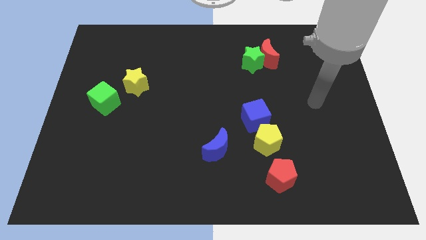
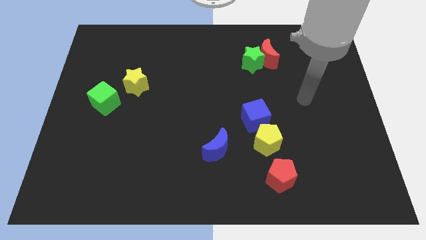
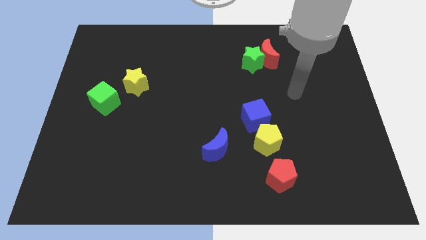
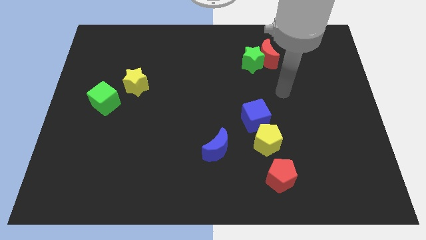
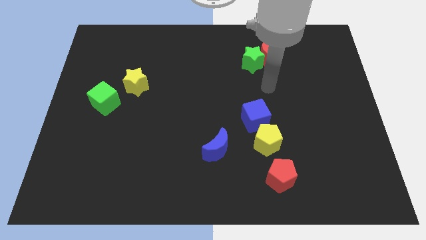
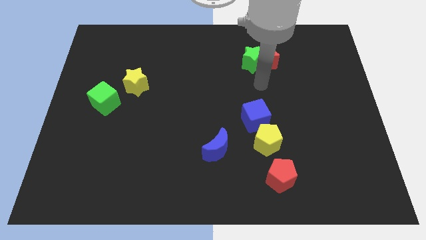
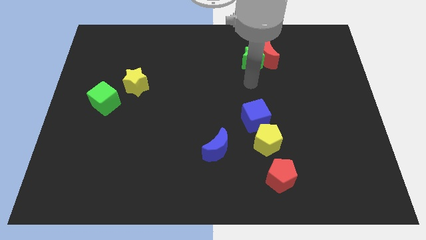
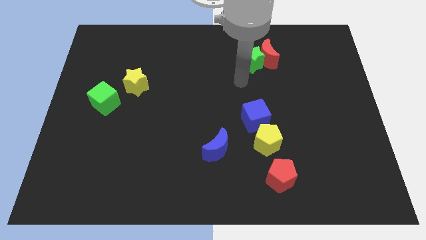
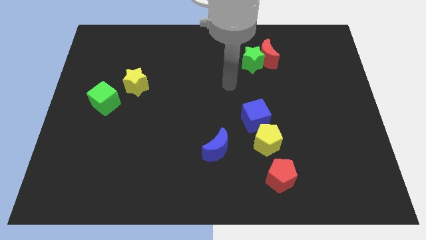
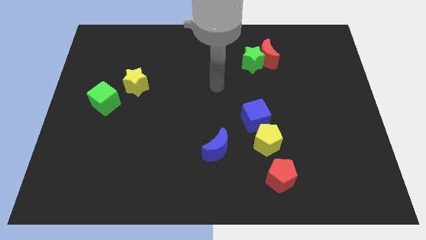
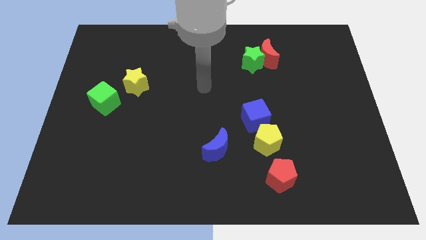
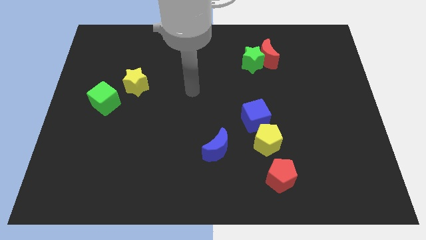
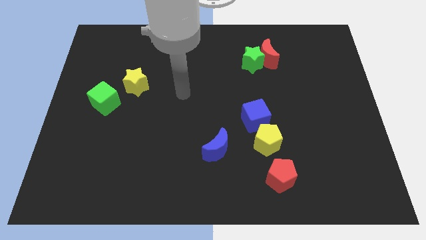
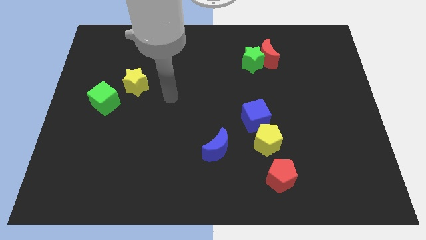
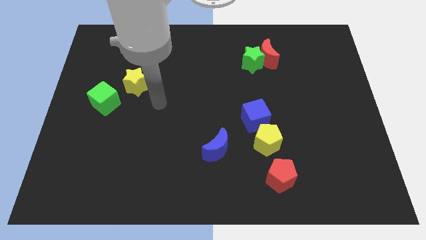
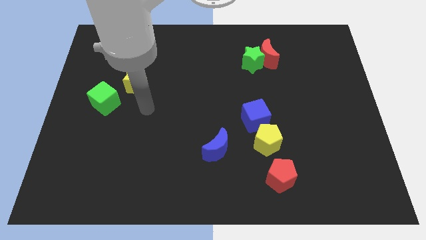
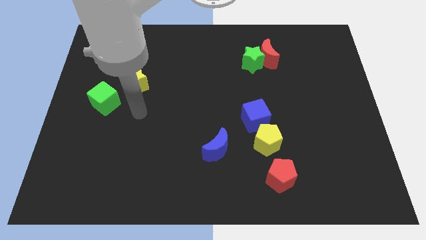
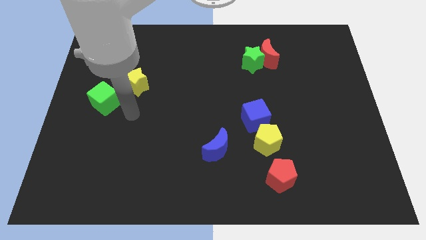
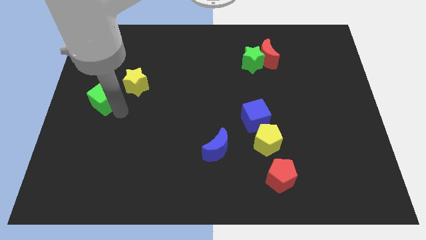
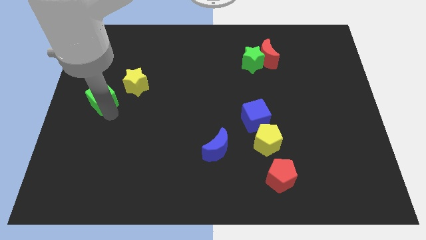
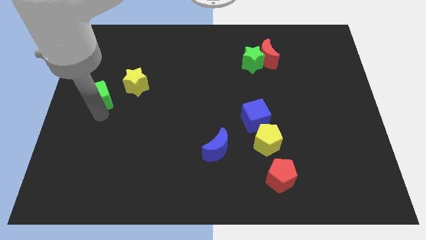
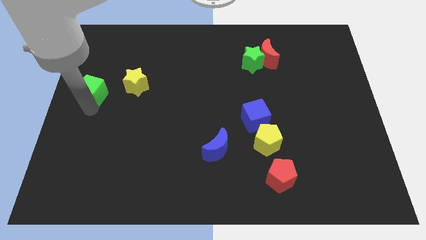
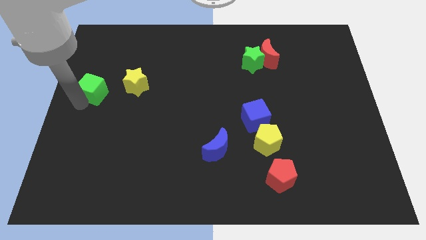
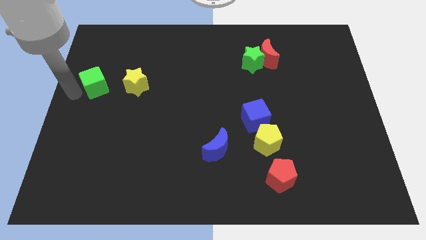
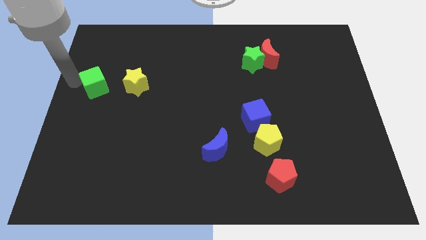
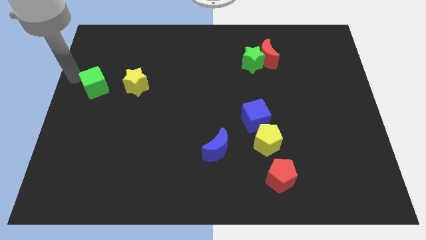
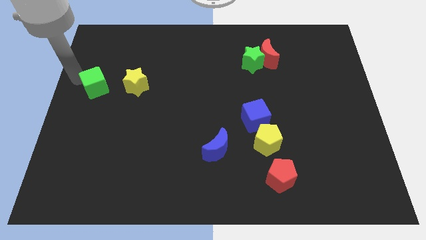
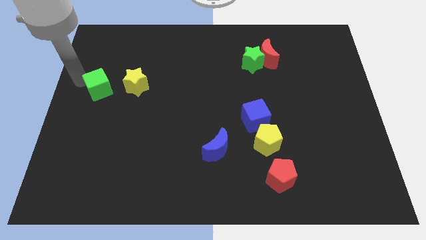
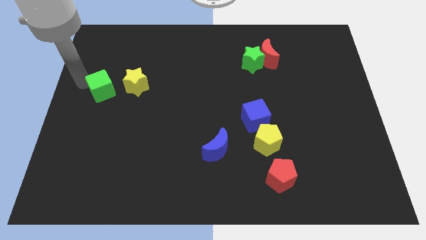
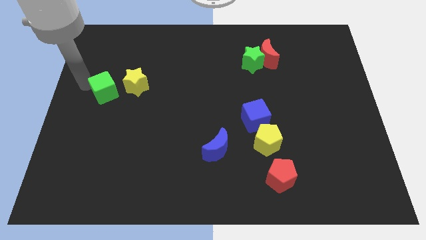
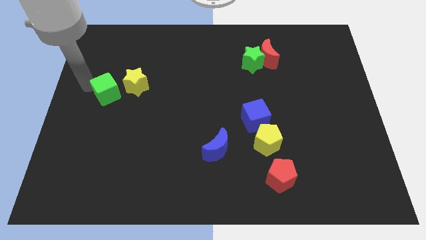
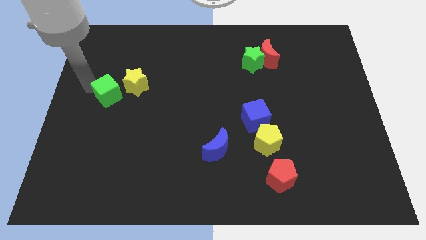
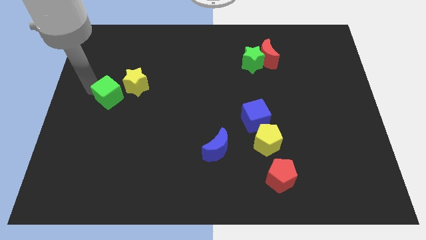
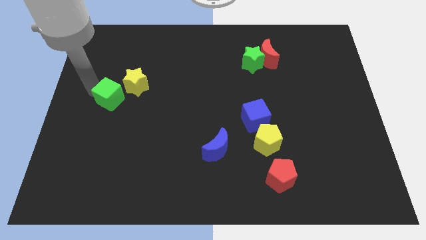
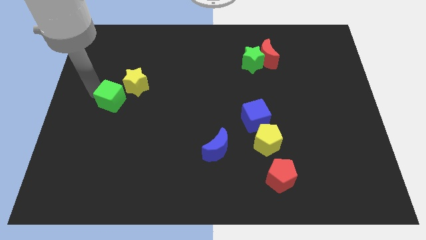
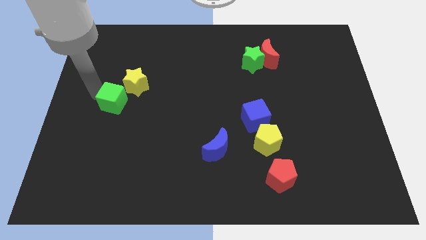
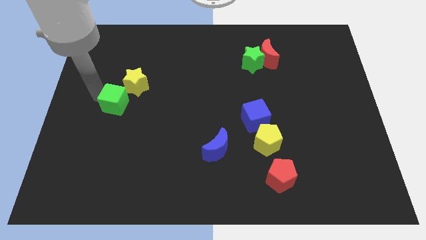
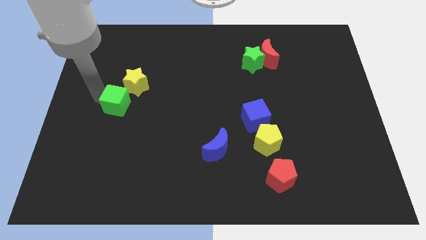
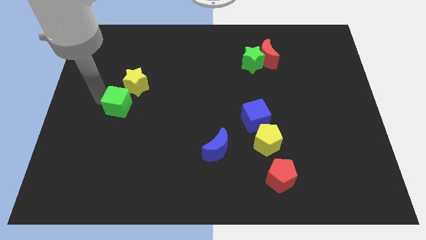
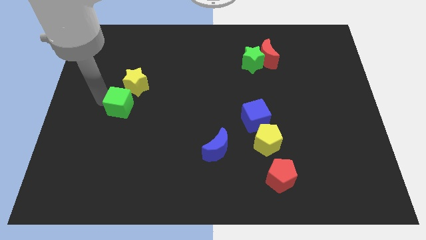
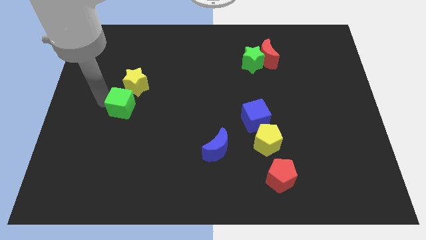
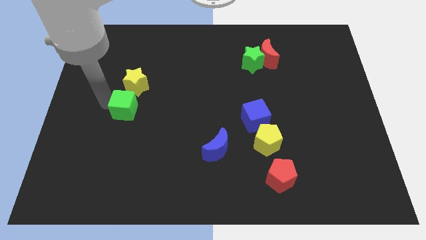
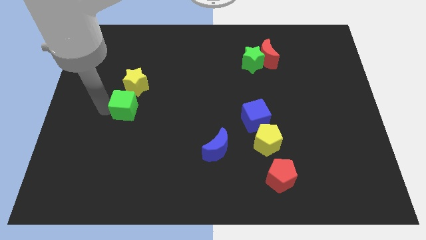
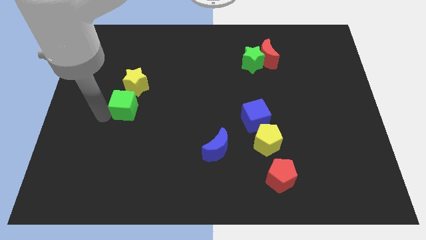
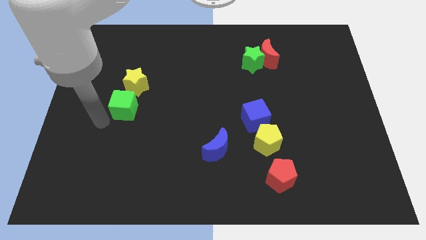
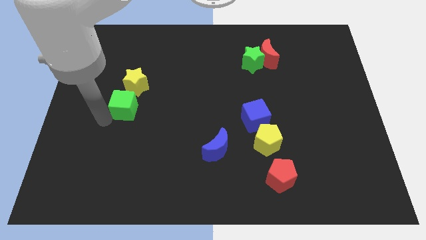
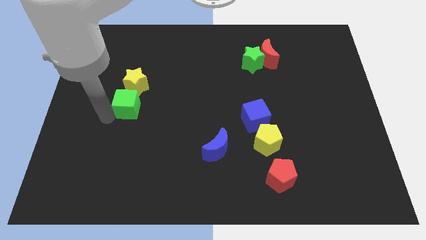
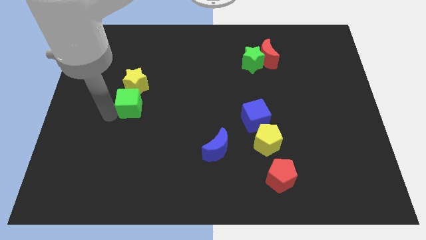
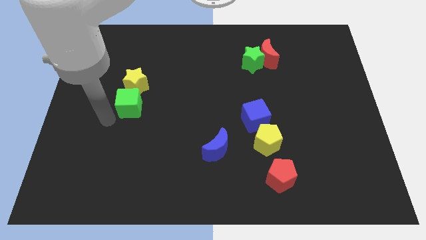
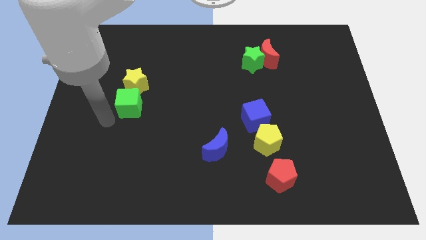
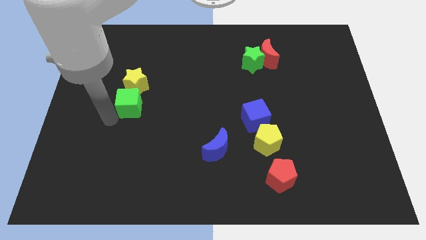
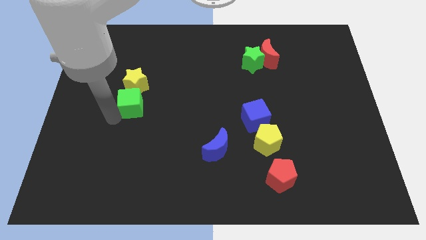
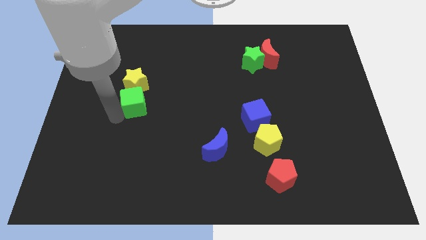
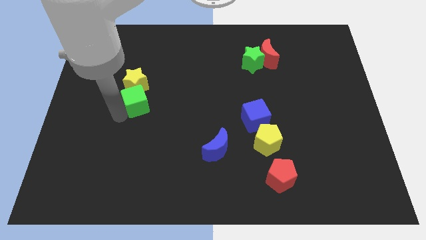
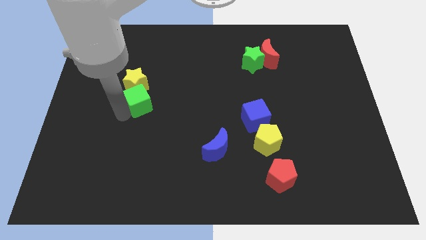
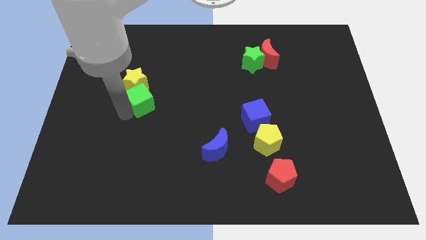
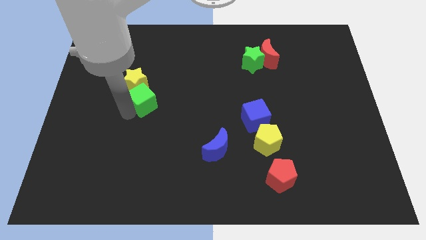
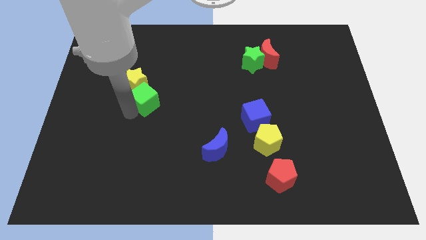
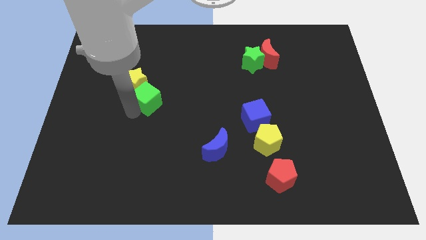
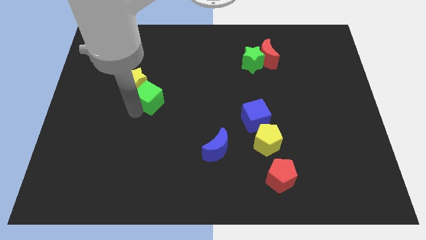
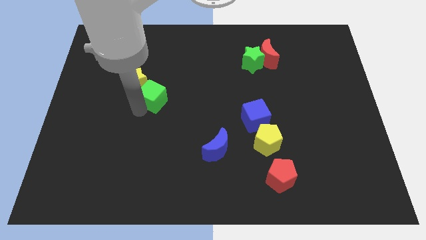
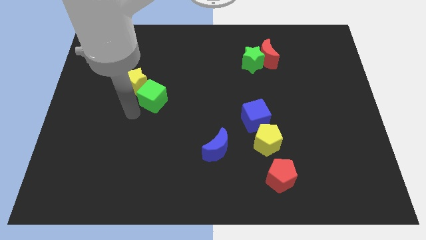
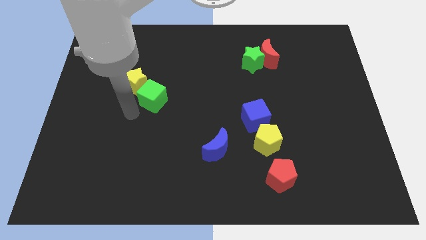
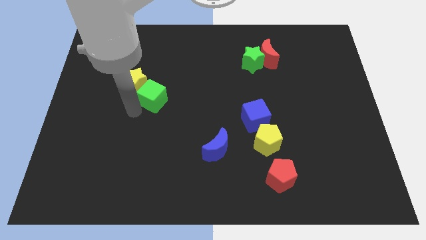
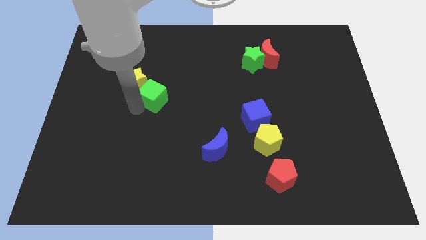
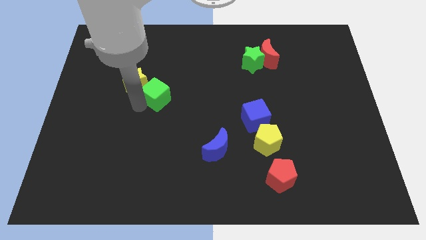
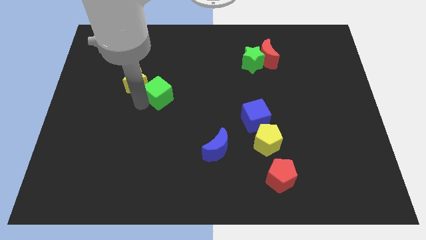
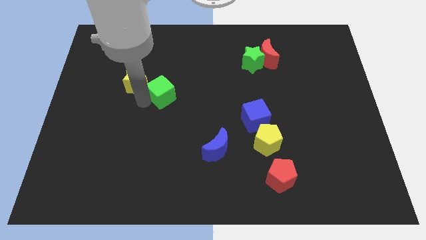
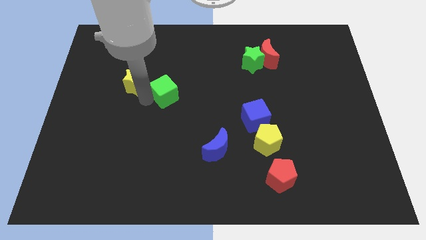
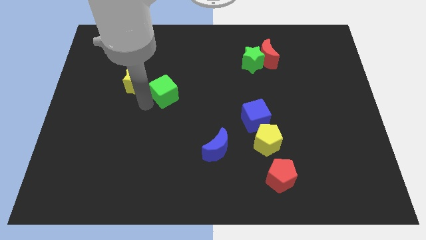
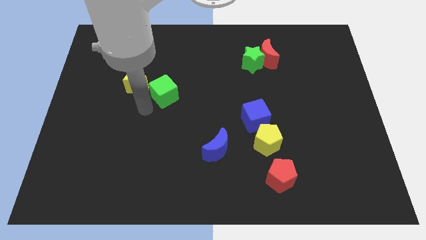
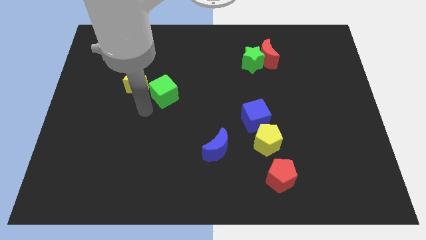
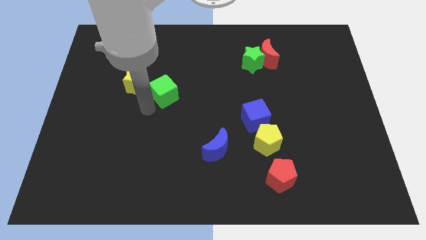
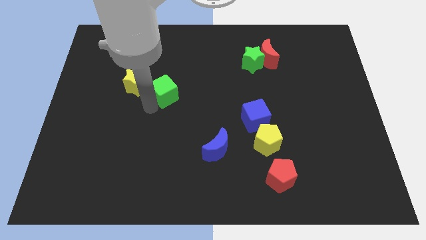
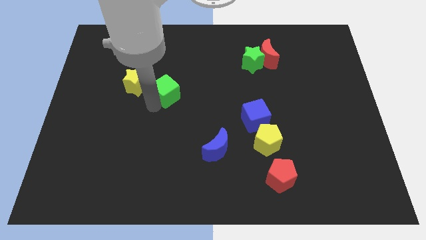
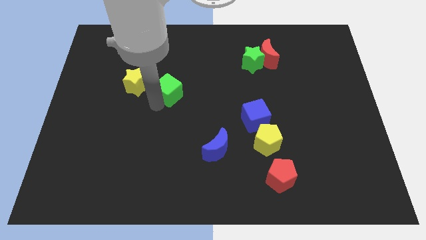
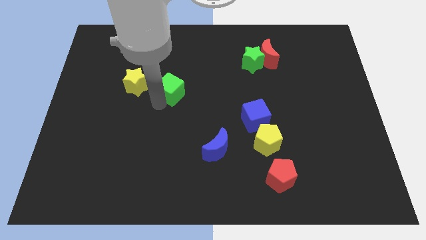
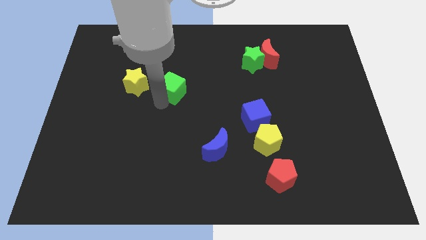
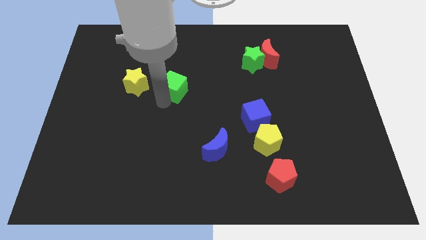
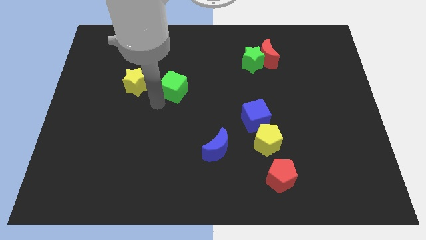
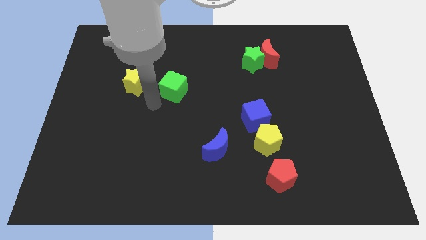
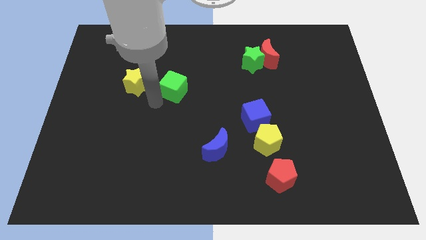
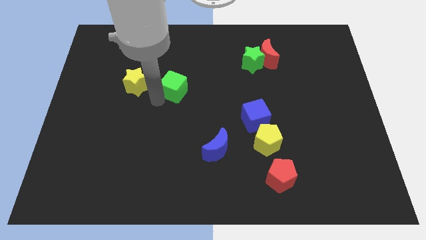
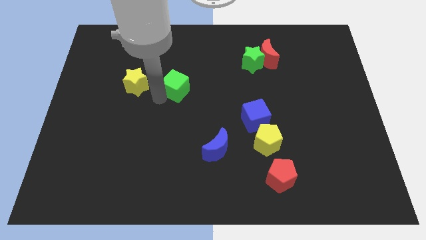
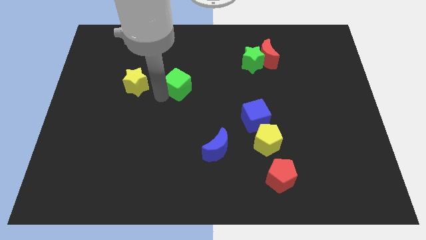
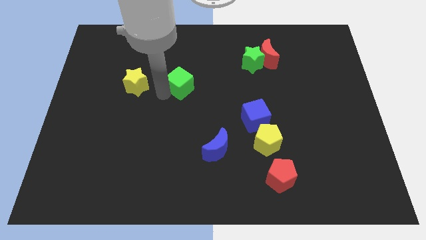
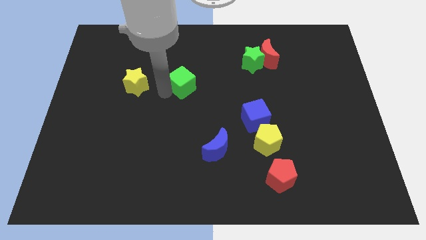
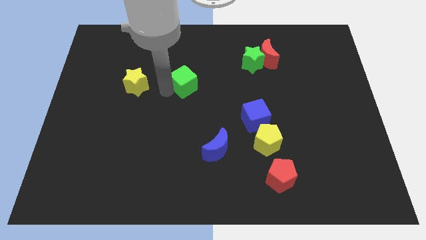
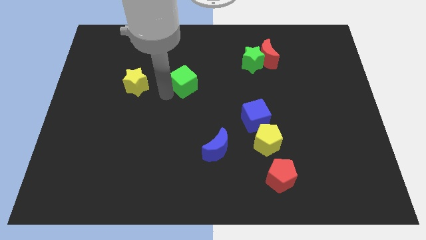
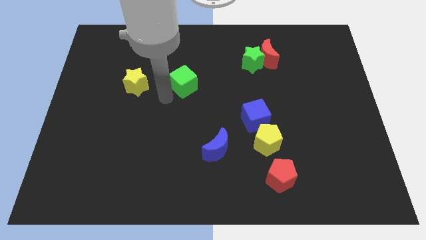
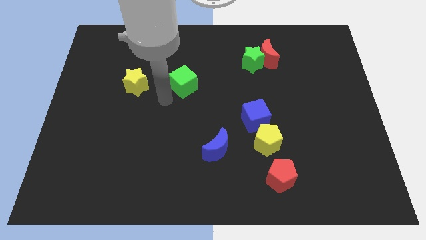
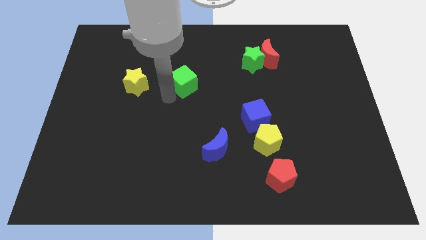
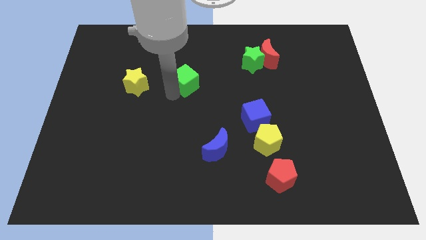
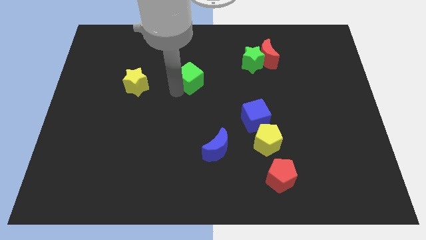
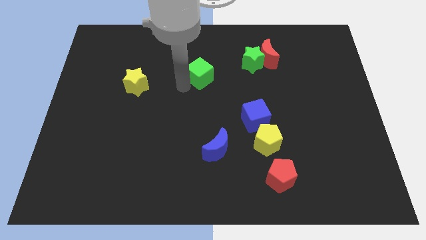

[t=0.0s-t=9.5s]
put the green cube just left of the green star
